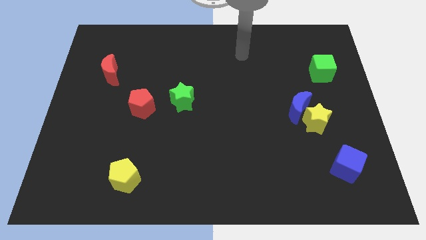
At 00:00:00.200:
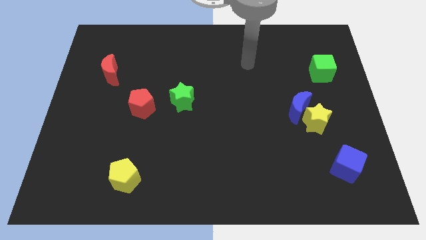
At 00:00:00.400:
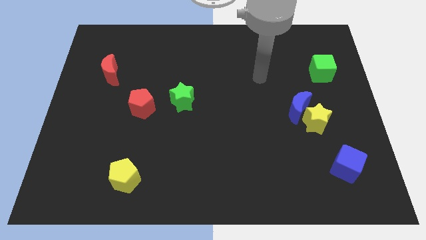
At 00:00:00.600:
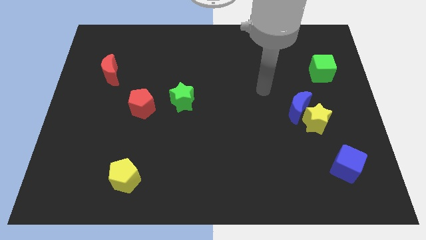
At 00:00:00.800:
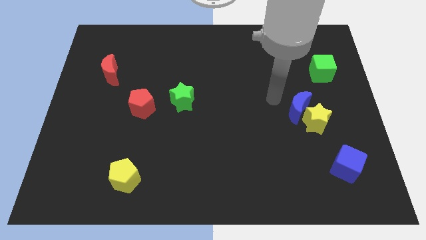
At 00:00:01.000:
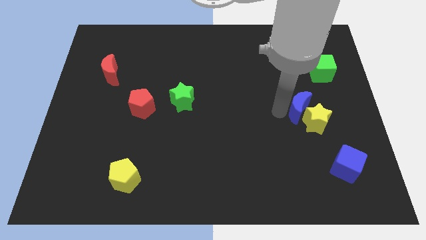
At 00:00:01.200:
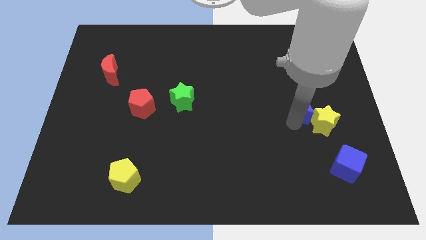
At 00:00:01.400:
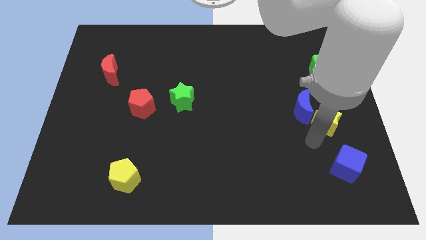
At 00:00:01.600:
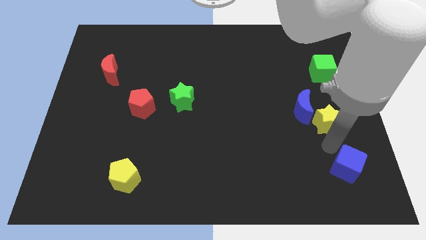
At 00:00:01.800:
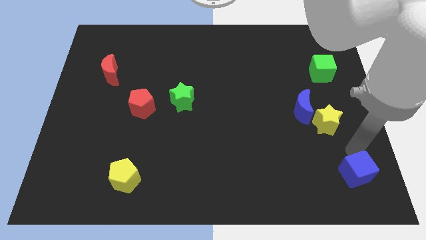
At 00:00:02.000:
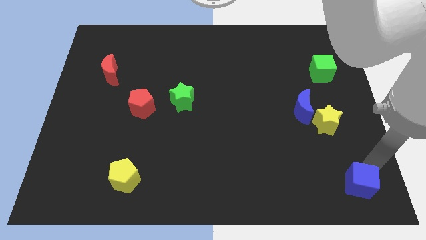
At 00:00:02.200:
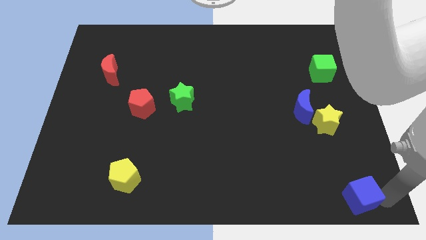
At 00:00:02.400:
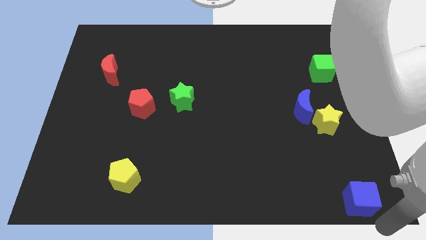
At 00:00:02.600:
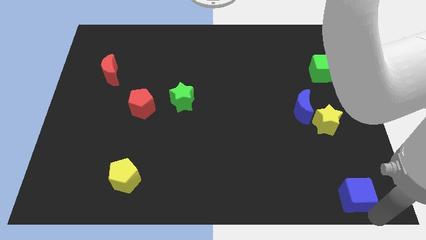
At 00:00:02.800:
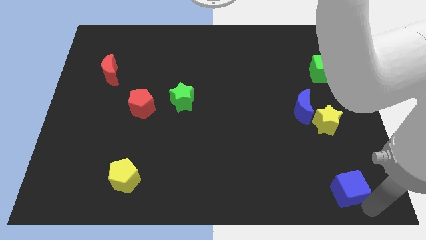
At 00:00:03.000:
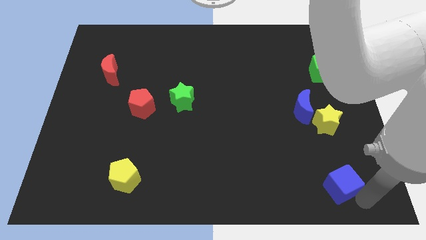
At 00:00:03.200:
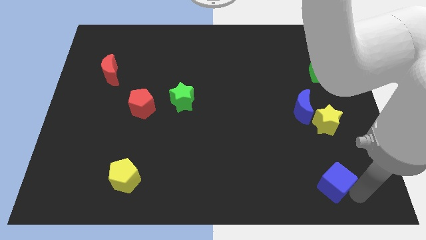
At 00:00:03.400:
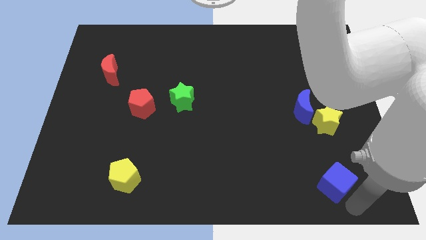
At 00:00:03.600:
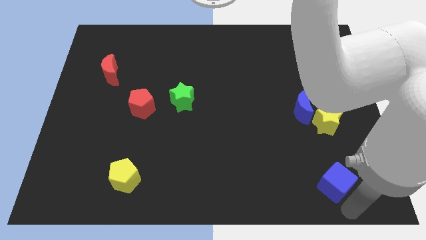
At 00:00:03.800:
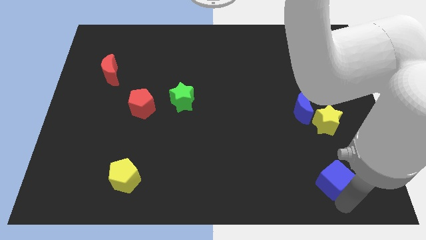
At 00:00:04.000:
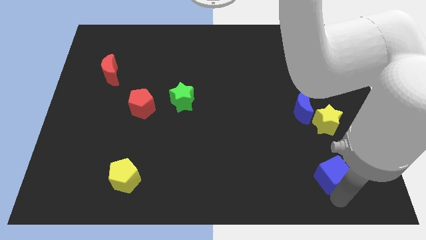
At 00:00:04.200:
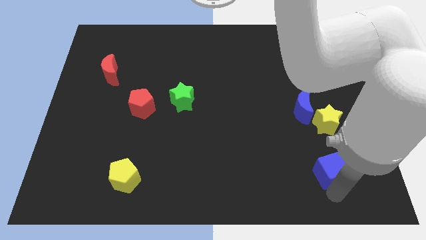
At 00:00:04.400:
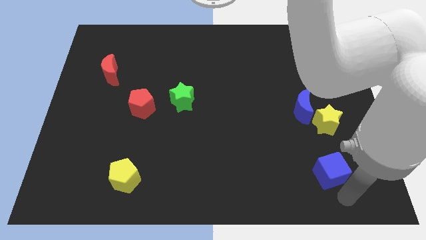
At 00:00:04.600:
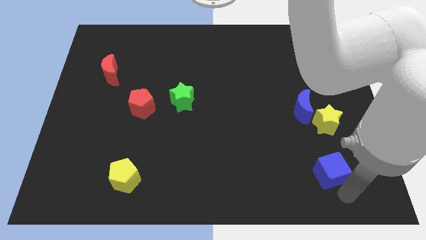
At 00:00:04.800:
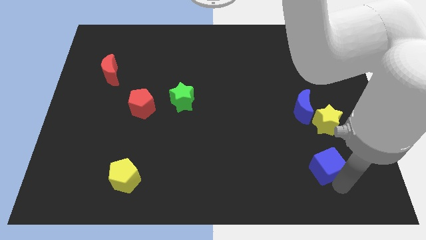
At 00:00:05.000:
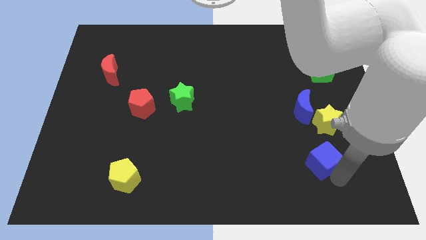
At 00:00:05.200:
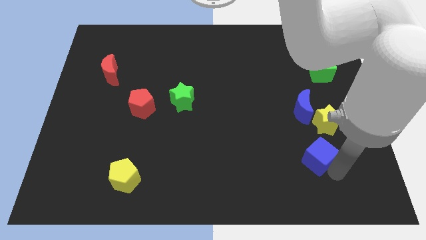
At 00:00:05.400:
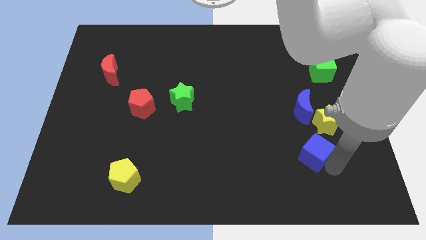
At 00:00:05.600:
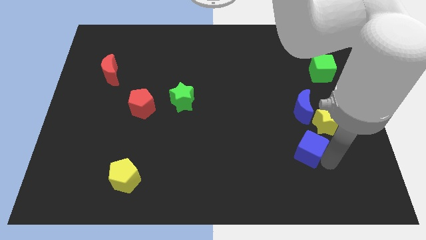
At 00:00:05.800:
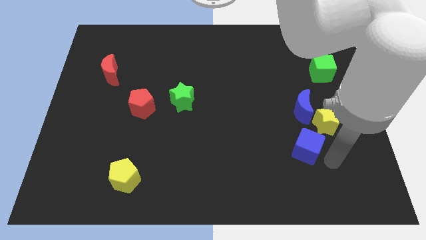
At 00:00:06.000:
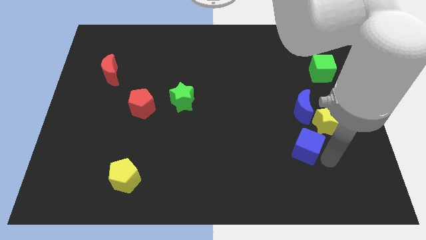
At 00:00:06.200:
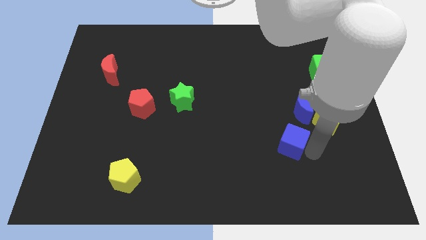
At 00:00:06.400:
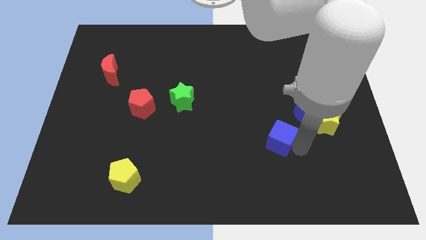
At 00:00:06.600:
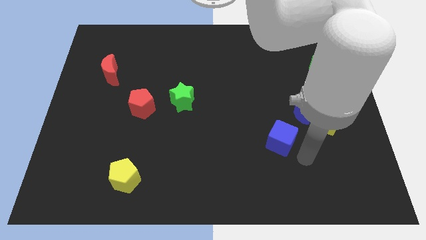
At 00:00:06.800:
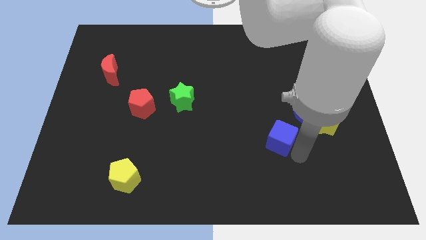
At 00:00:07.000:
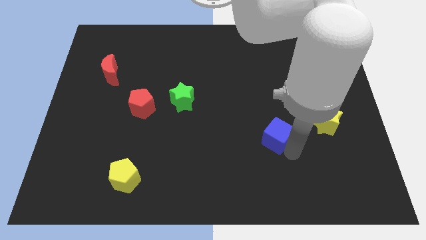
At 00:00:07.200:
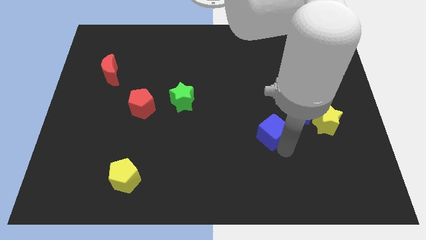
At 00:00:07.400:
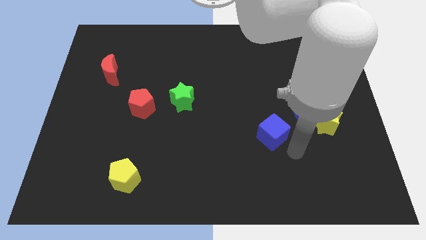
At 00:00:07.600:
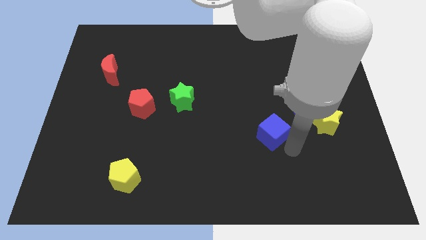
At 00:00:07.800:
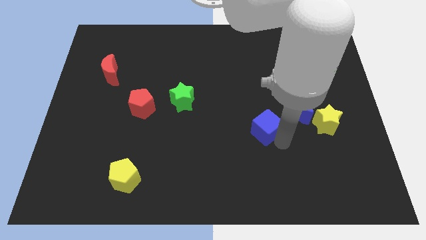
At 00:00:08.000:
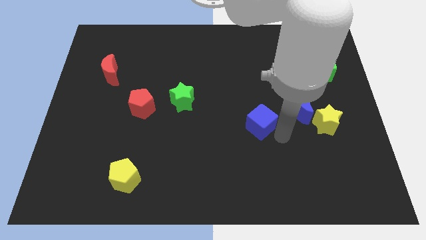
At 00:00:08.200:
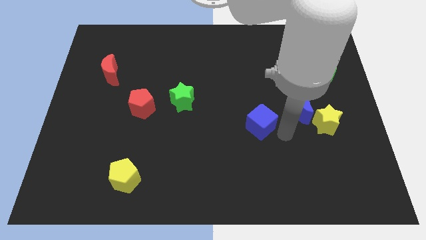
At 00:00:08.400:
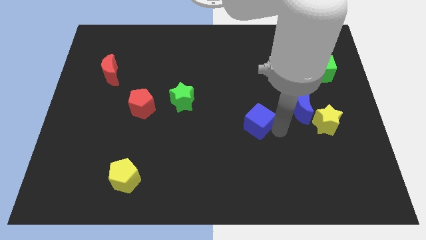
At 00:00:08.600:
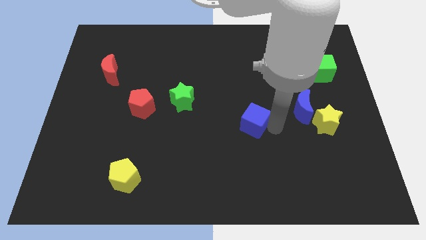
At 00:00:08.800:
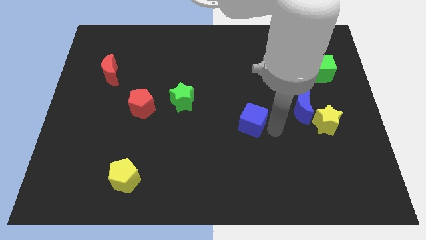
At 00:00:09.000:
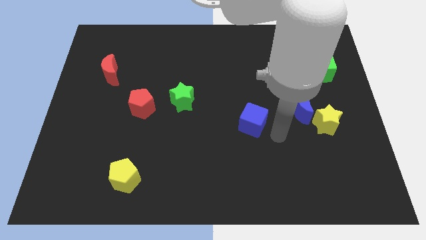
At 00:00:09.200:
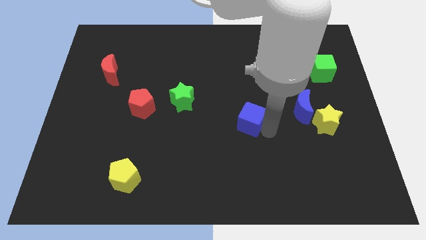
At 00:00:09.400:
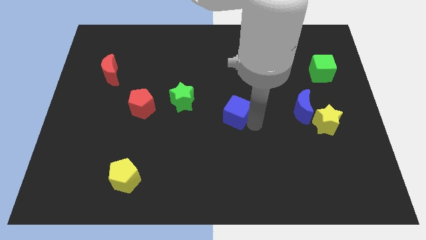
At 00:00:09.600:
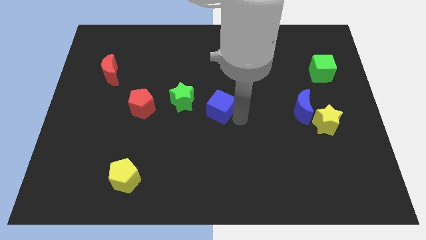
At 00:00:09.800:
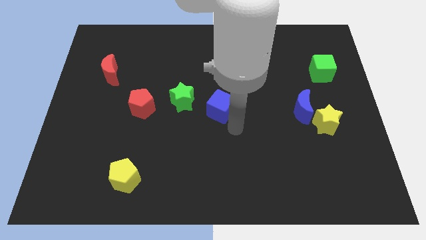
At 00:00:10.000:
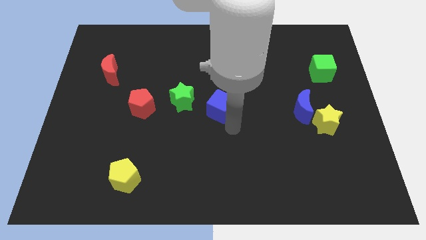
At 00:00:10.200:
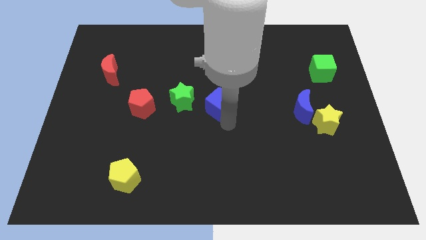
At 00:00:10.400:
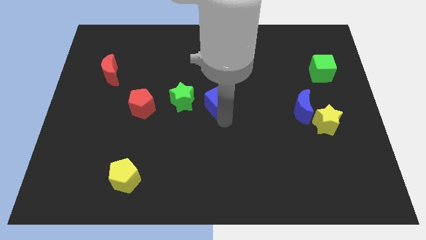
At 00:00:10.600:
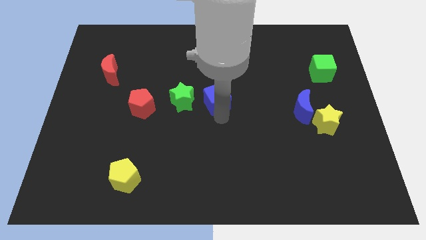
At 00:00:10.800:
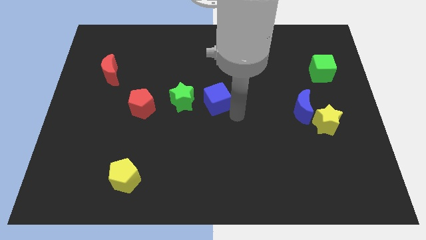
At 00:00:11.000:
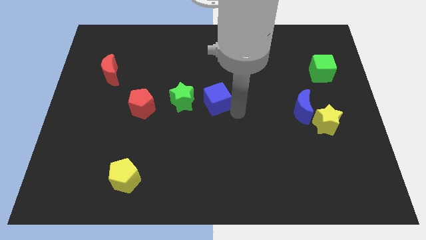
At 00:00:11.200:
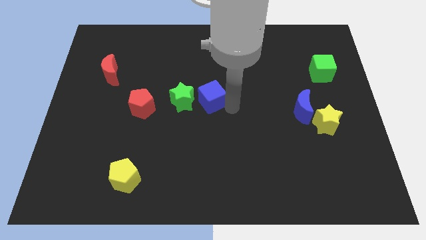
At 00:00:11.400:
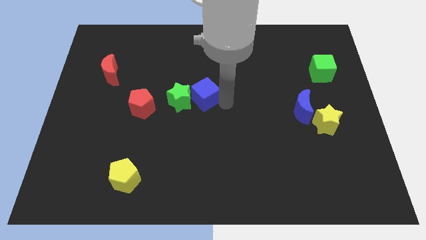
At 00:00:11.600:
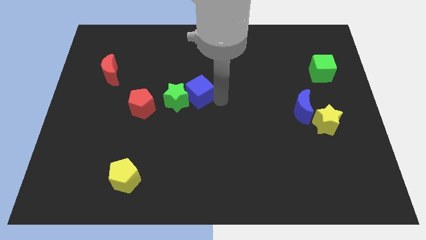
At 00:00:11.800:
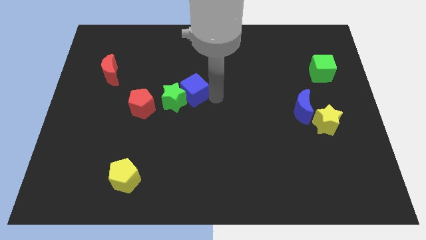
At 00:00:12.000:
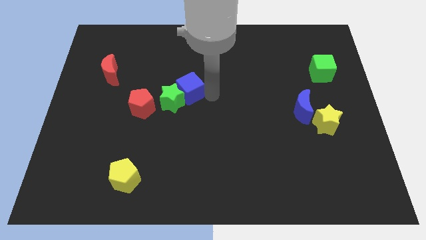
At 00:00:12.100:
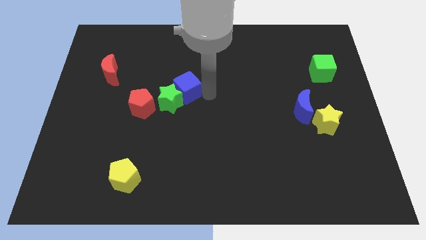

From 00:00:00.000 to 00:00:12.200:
push the blue cube diagonally up and to the right of the red pentagon
